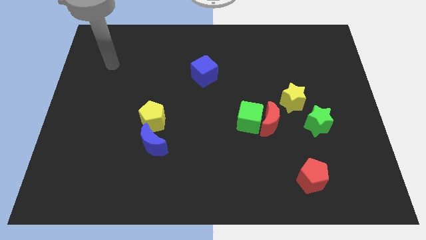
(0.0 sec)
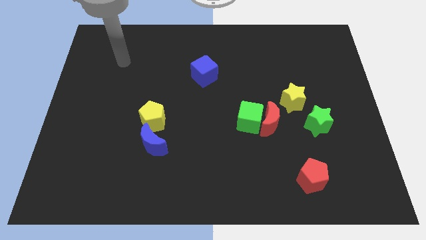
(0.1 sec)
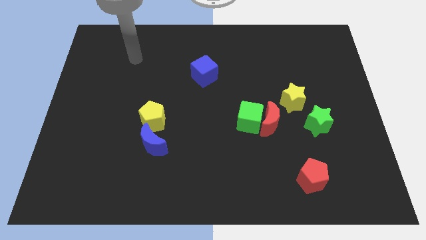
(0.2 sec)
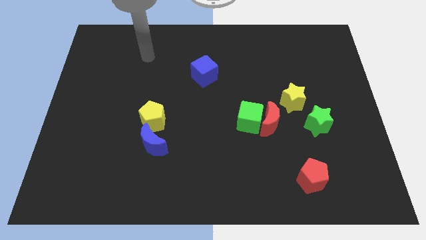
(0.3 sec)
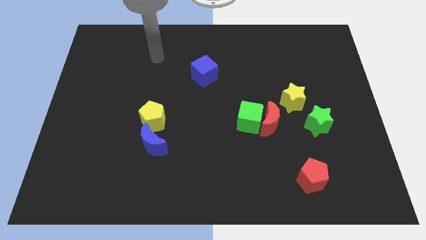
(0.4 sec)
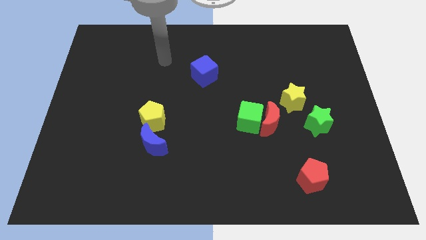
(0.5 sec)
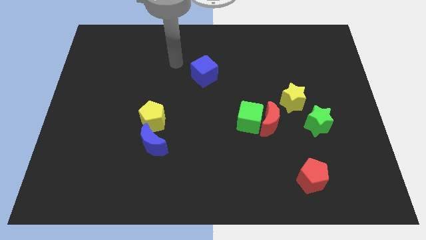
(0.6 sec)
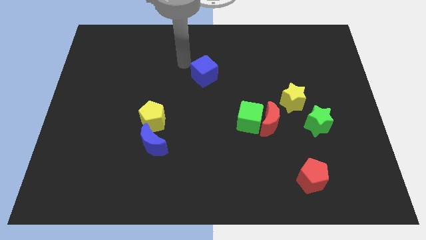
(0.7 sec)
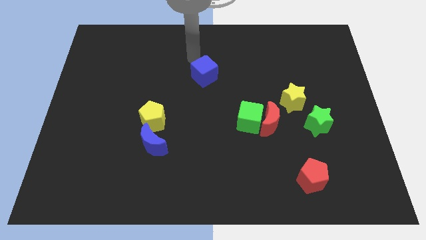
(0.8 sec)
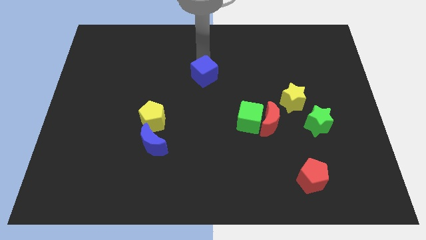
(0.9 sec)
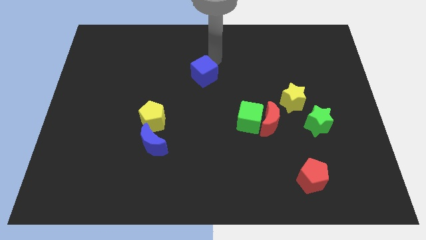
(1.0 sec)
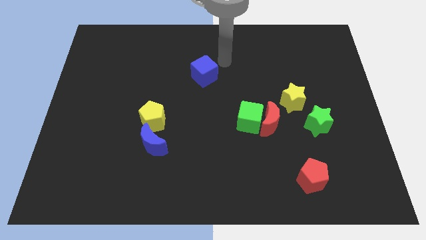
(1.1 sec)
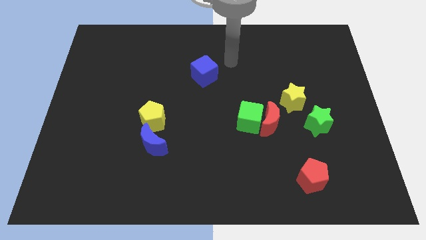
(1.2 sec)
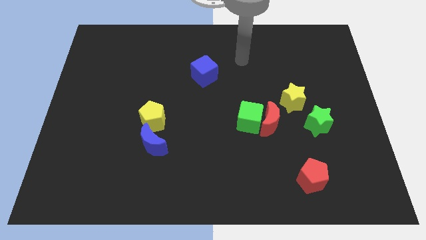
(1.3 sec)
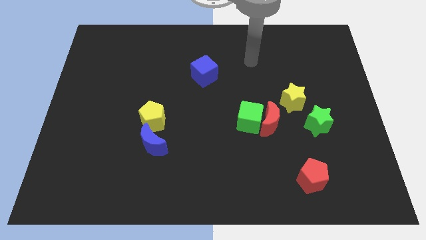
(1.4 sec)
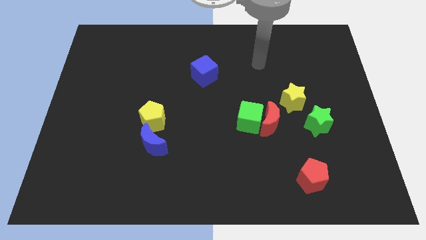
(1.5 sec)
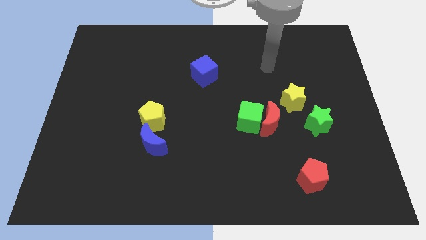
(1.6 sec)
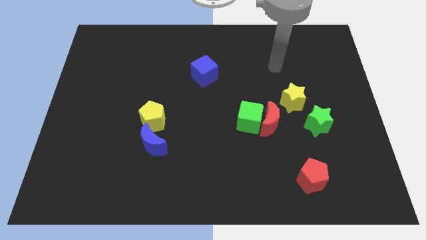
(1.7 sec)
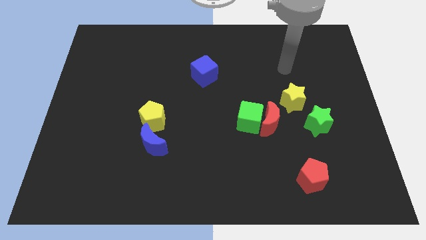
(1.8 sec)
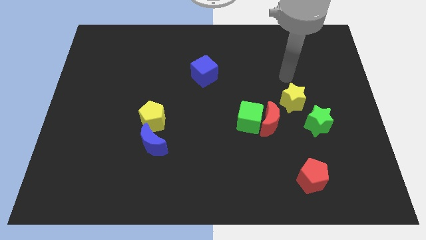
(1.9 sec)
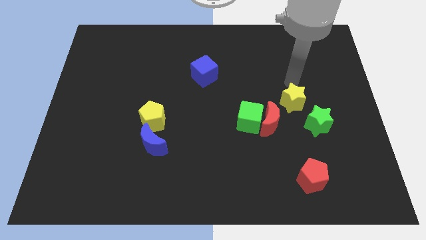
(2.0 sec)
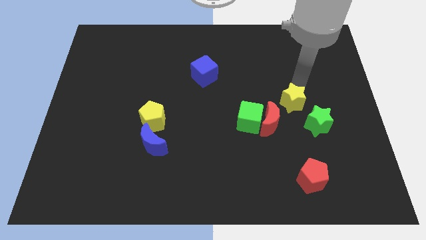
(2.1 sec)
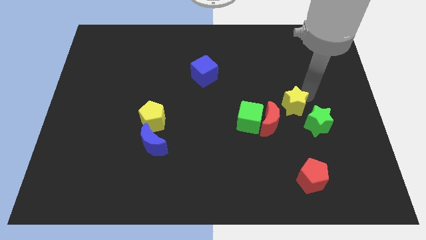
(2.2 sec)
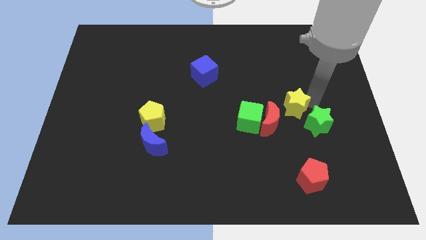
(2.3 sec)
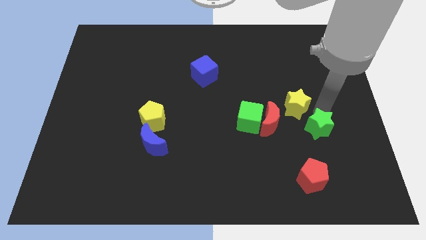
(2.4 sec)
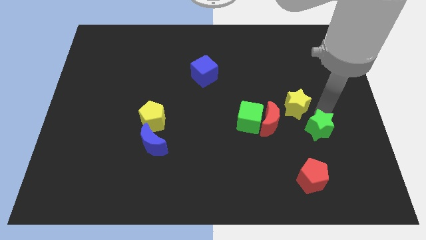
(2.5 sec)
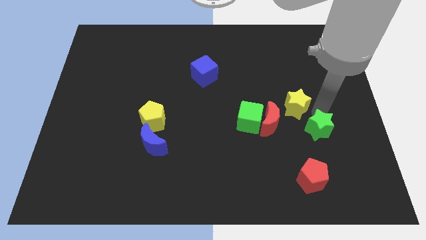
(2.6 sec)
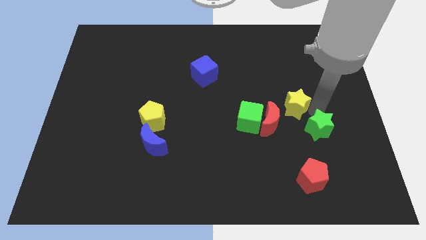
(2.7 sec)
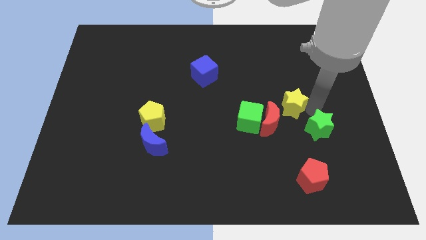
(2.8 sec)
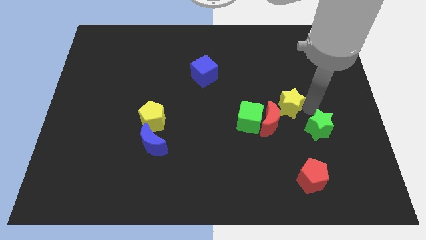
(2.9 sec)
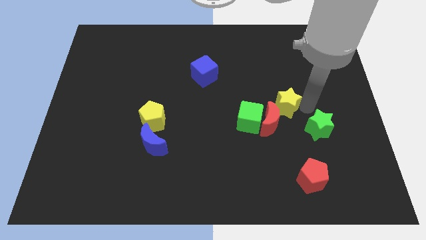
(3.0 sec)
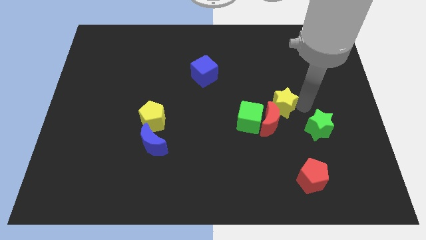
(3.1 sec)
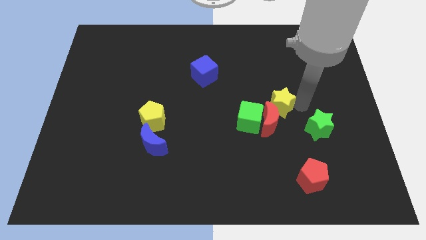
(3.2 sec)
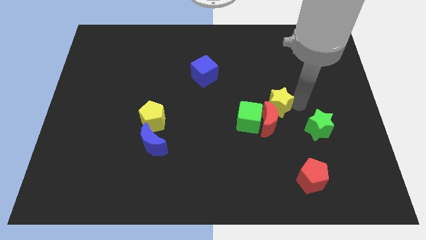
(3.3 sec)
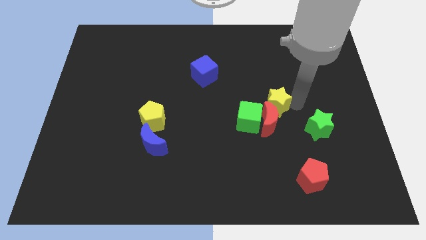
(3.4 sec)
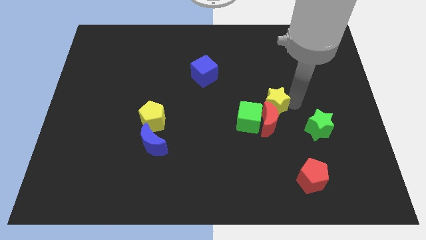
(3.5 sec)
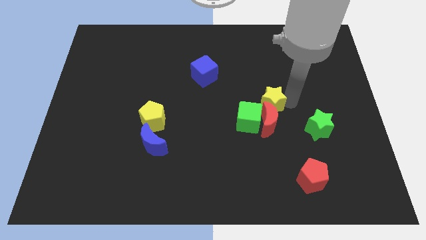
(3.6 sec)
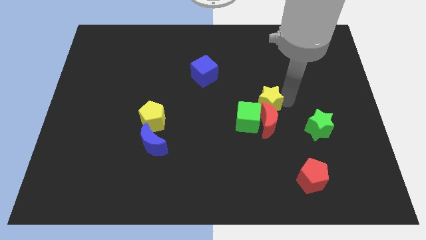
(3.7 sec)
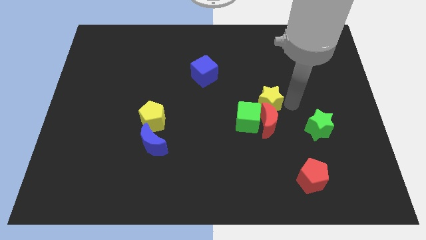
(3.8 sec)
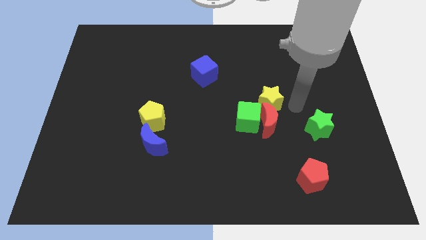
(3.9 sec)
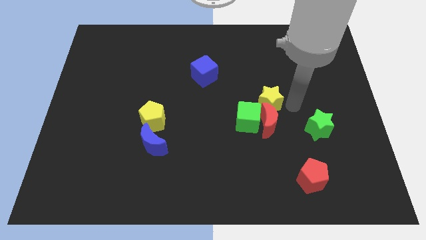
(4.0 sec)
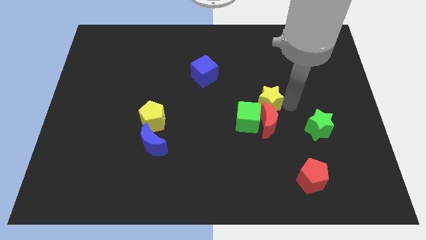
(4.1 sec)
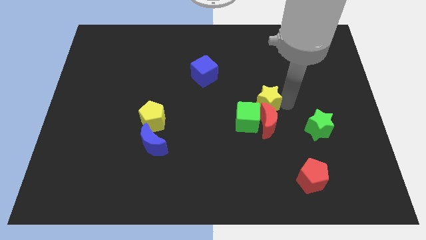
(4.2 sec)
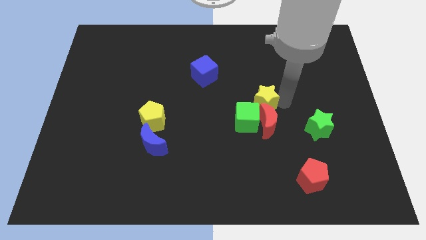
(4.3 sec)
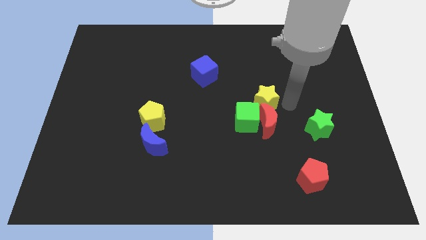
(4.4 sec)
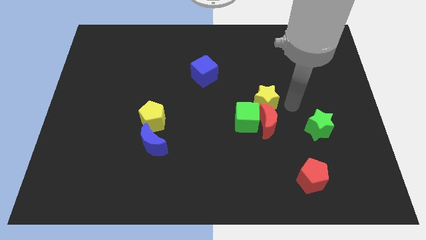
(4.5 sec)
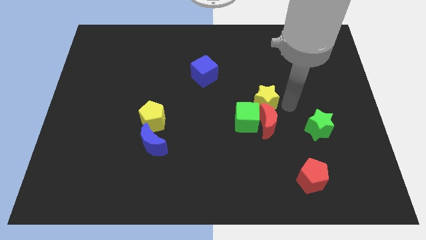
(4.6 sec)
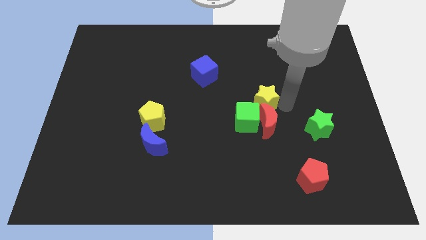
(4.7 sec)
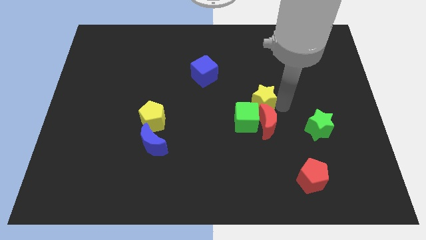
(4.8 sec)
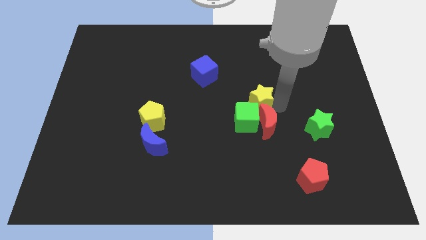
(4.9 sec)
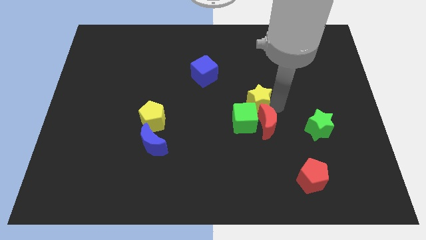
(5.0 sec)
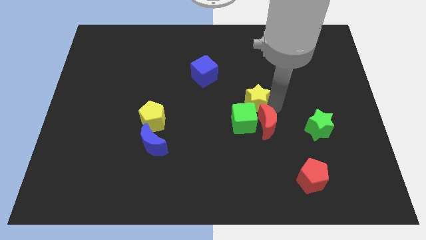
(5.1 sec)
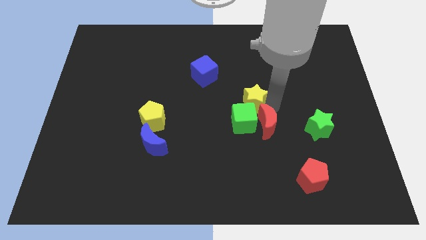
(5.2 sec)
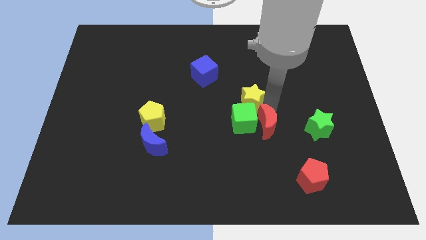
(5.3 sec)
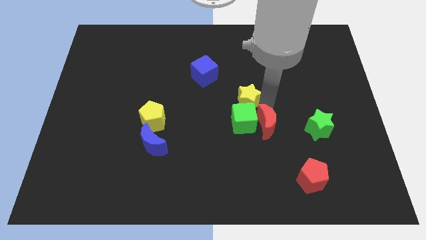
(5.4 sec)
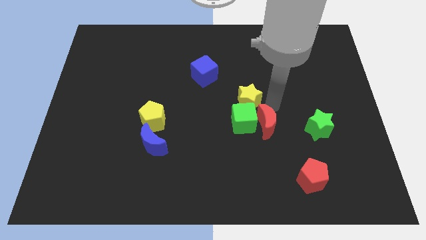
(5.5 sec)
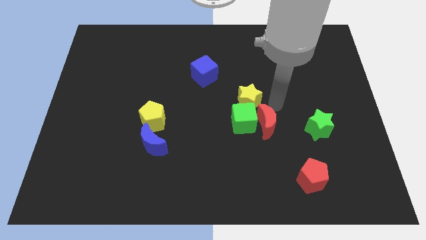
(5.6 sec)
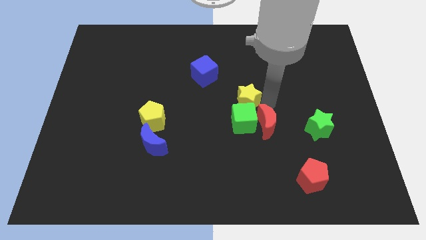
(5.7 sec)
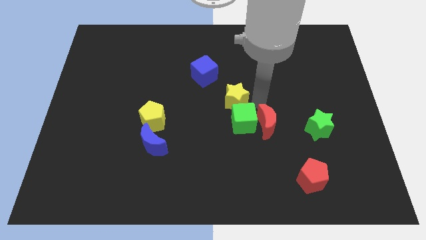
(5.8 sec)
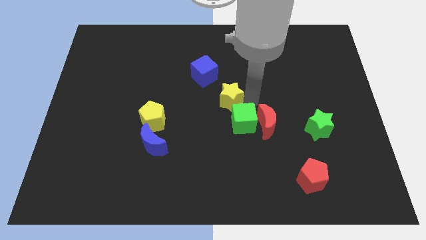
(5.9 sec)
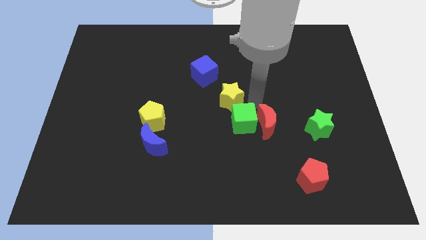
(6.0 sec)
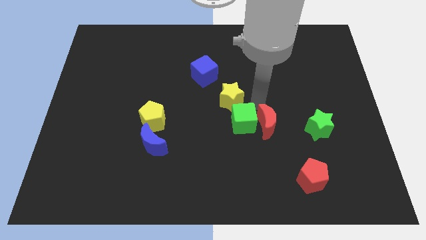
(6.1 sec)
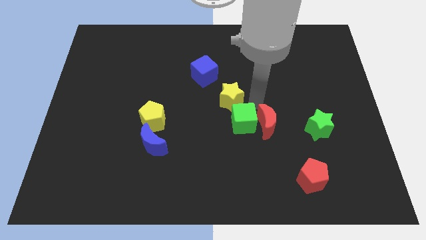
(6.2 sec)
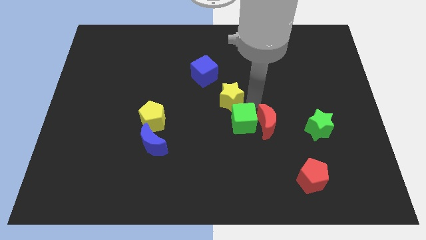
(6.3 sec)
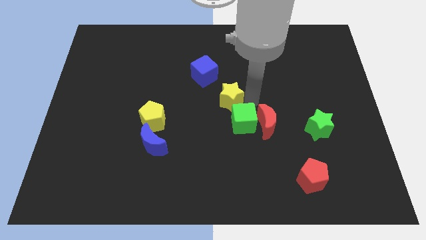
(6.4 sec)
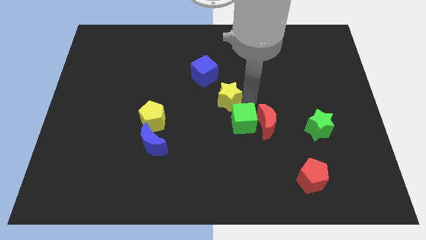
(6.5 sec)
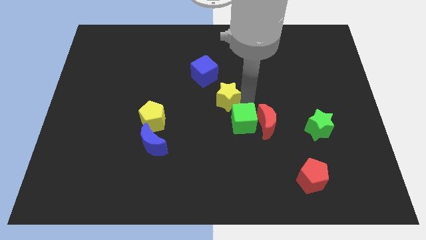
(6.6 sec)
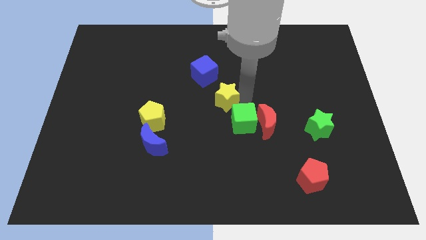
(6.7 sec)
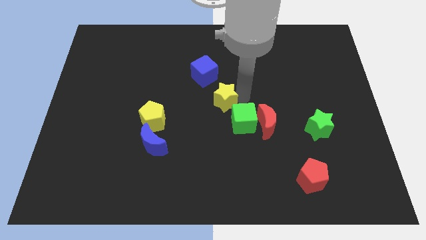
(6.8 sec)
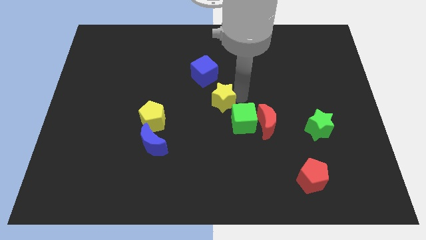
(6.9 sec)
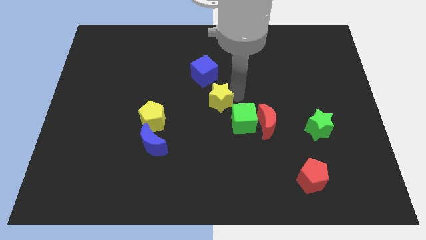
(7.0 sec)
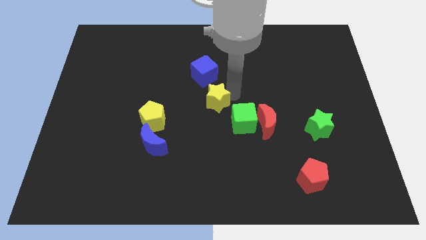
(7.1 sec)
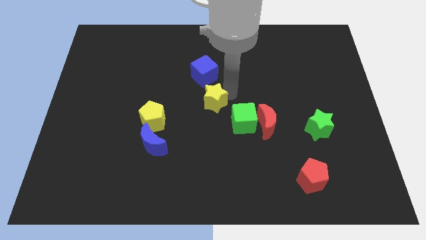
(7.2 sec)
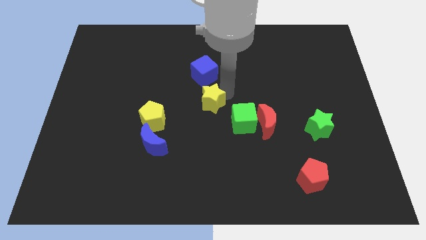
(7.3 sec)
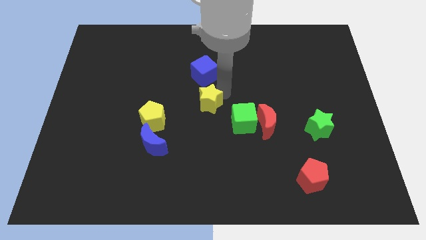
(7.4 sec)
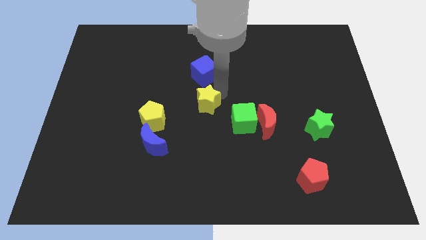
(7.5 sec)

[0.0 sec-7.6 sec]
move the yellow star left

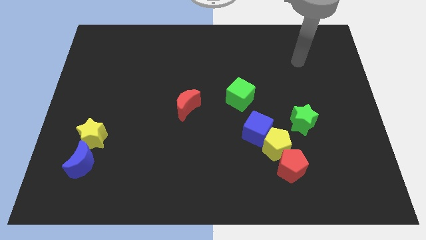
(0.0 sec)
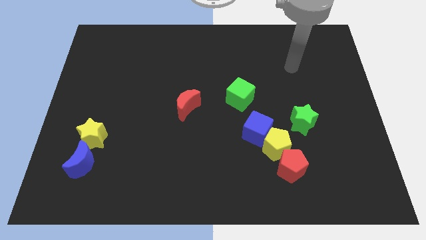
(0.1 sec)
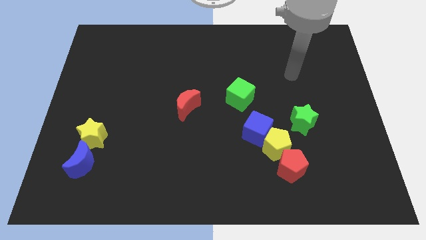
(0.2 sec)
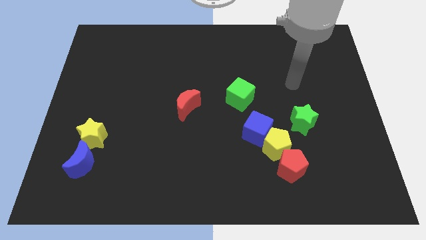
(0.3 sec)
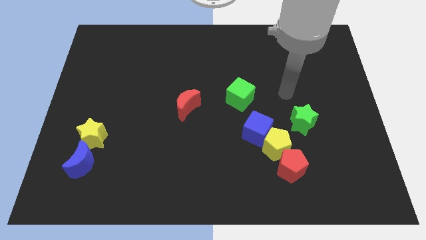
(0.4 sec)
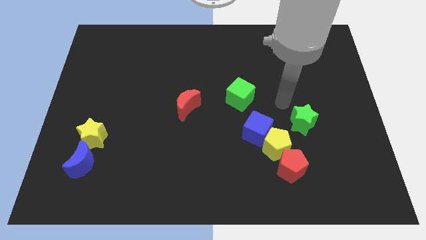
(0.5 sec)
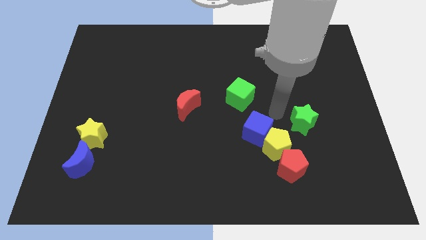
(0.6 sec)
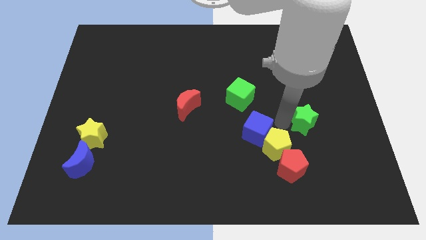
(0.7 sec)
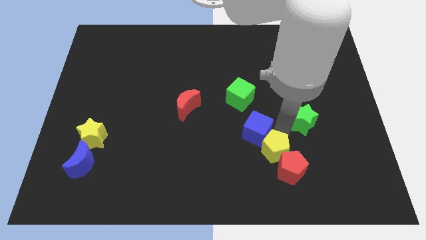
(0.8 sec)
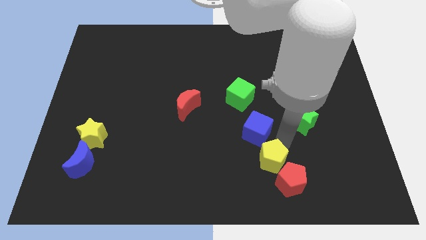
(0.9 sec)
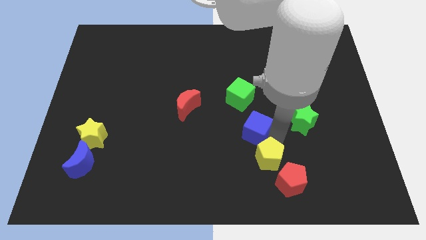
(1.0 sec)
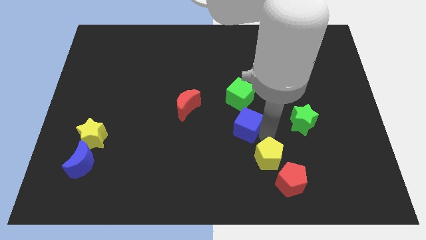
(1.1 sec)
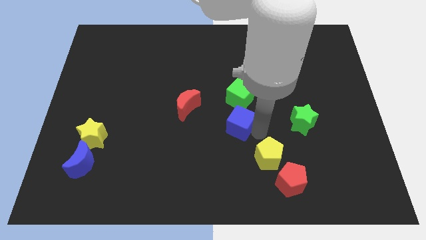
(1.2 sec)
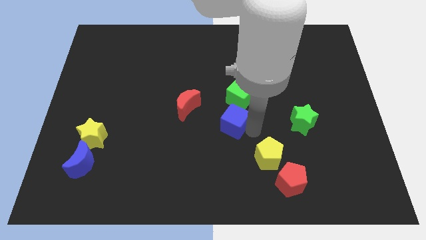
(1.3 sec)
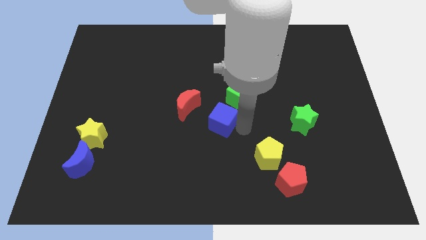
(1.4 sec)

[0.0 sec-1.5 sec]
move the blue cube a bit up and then left
